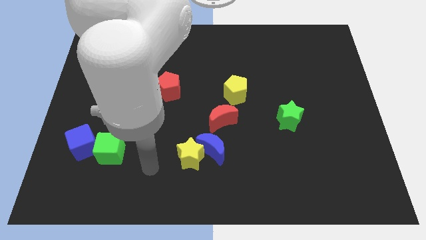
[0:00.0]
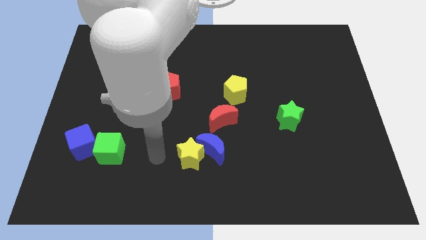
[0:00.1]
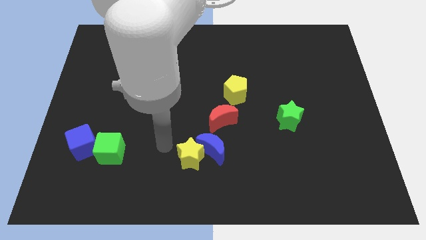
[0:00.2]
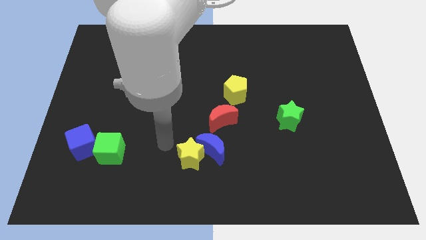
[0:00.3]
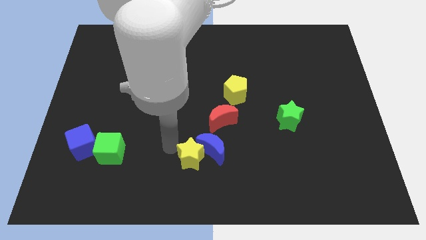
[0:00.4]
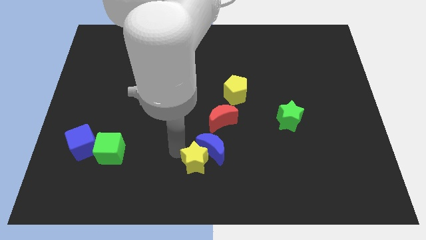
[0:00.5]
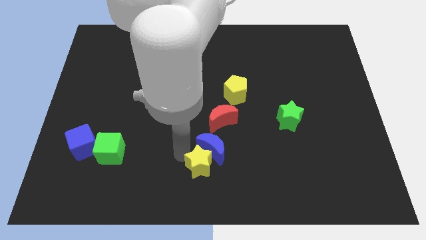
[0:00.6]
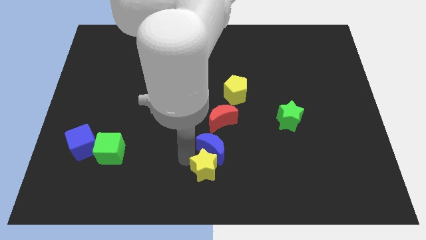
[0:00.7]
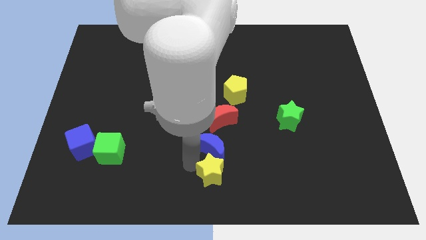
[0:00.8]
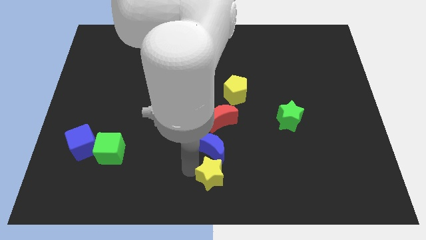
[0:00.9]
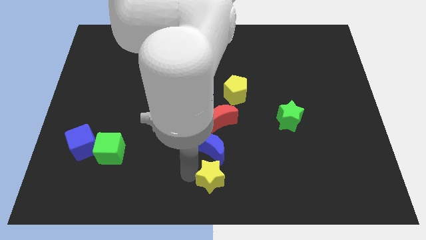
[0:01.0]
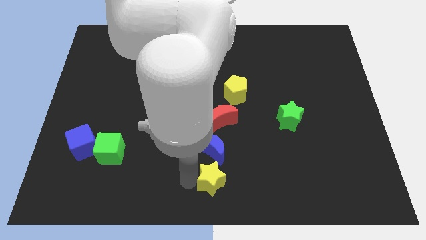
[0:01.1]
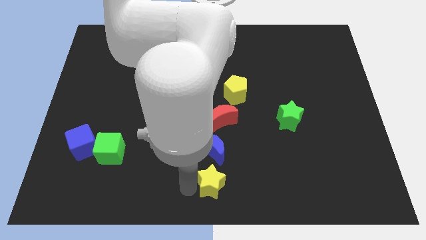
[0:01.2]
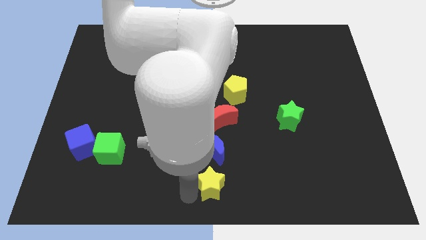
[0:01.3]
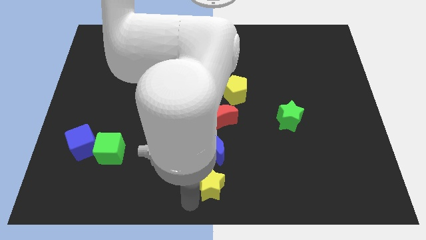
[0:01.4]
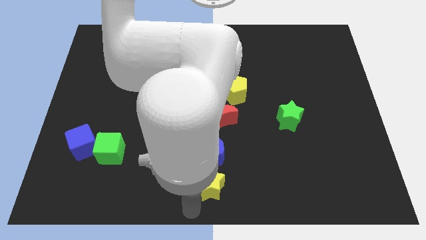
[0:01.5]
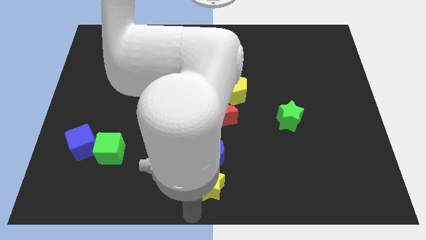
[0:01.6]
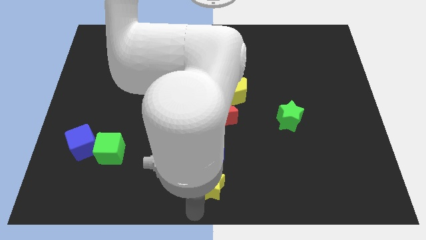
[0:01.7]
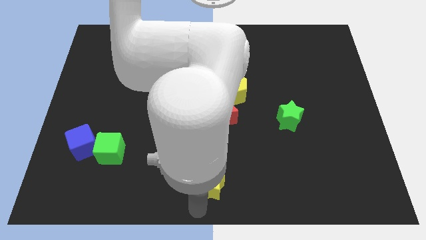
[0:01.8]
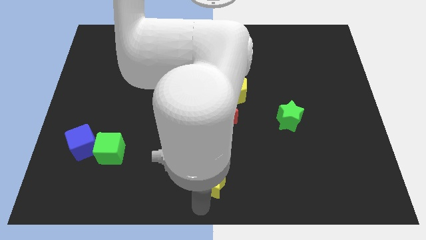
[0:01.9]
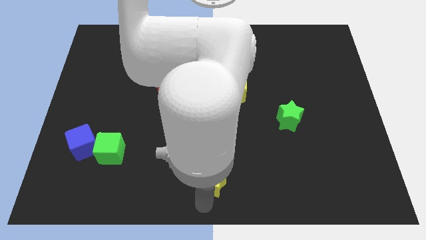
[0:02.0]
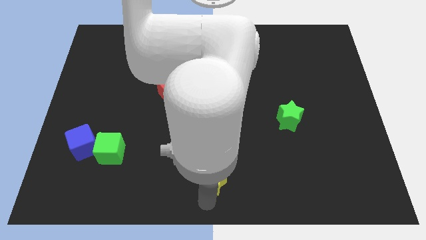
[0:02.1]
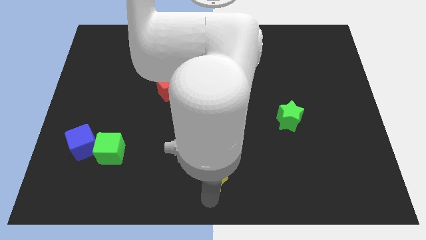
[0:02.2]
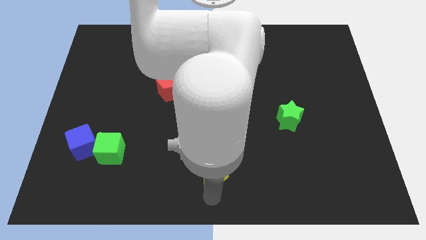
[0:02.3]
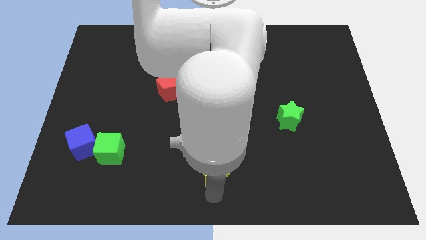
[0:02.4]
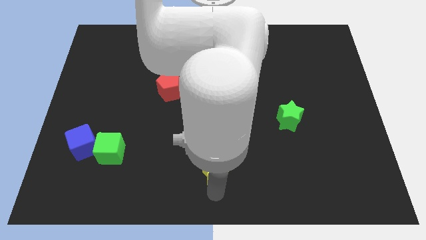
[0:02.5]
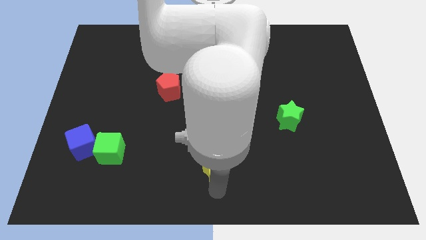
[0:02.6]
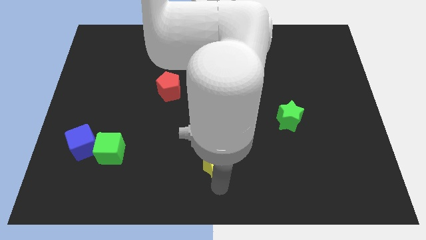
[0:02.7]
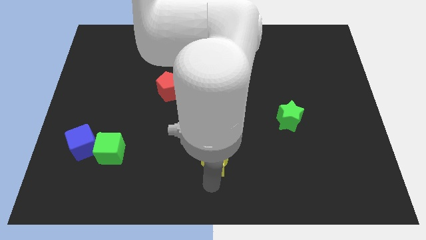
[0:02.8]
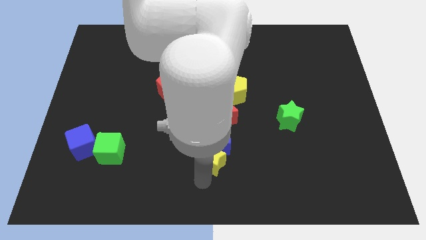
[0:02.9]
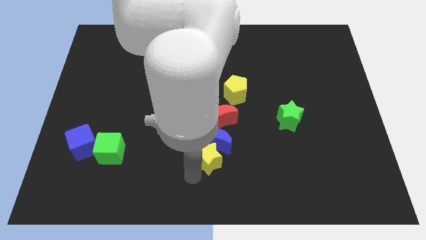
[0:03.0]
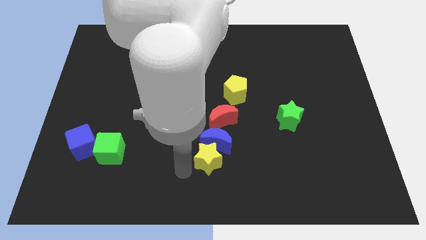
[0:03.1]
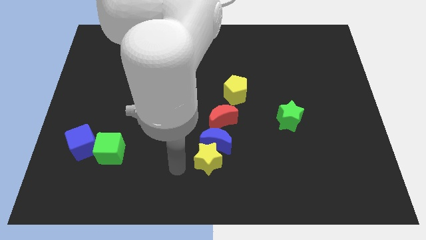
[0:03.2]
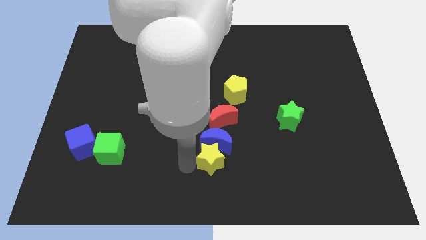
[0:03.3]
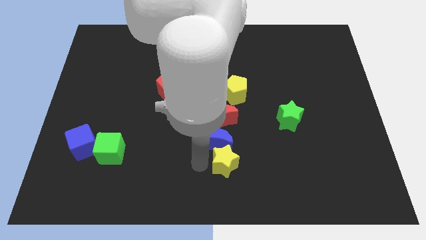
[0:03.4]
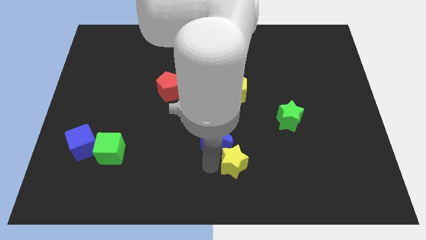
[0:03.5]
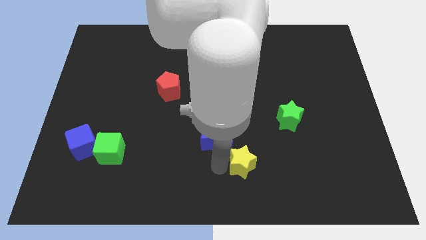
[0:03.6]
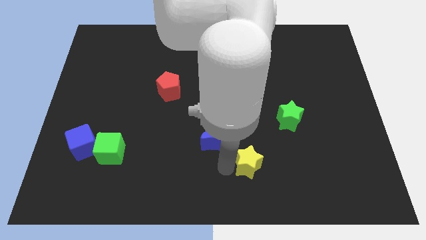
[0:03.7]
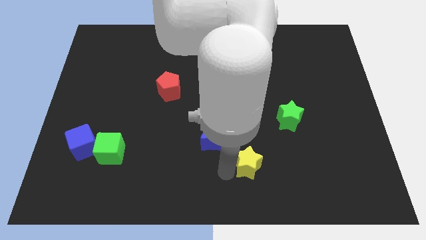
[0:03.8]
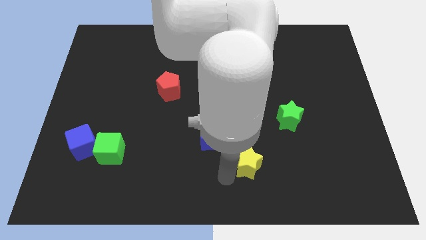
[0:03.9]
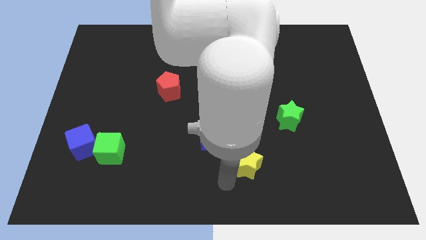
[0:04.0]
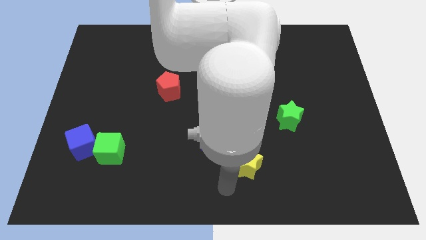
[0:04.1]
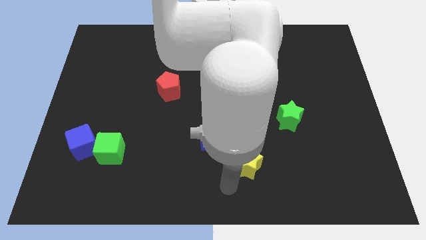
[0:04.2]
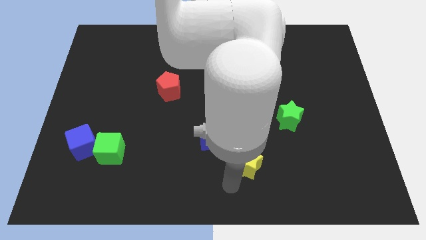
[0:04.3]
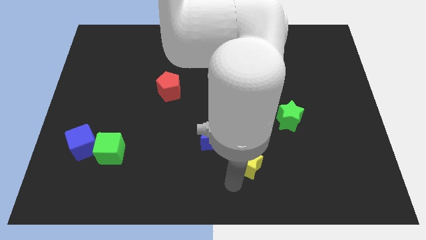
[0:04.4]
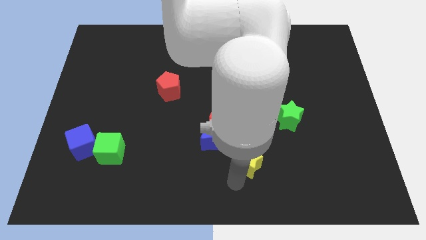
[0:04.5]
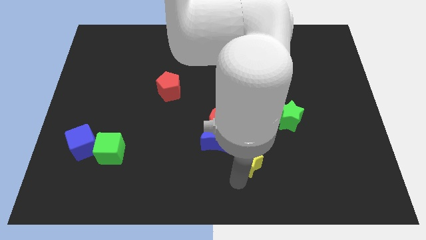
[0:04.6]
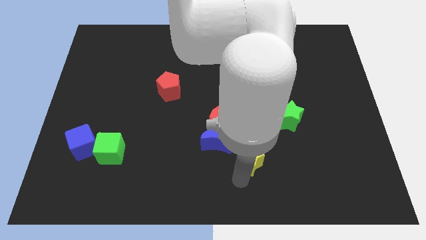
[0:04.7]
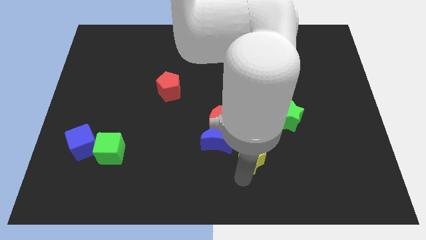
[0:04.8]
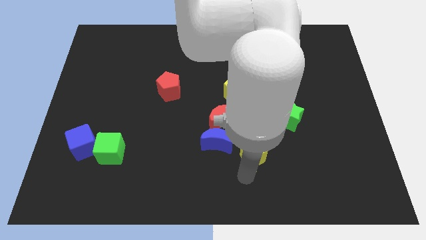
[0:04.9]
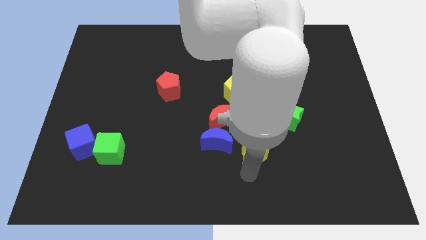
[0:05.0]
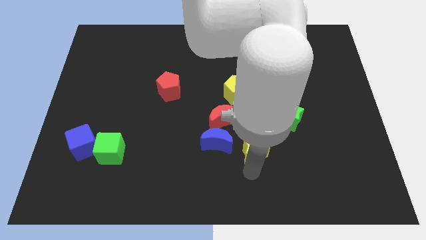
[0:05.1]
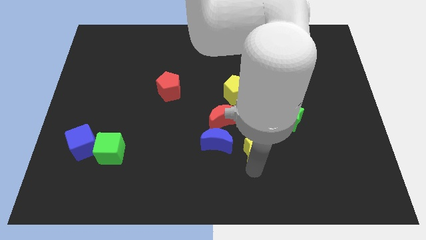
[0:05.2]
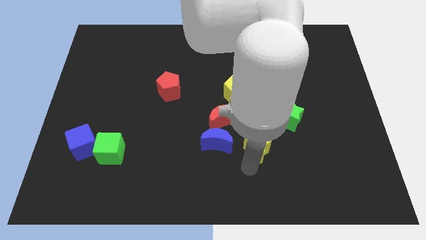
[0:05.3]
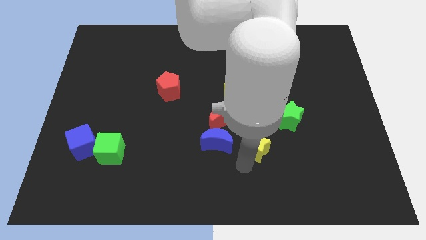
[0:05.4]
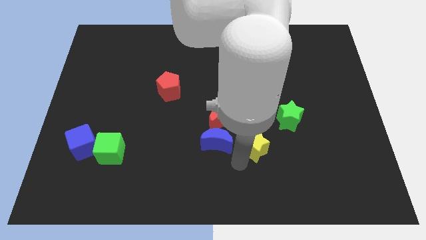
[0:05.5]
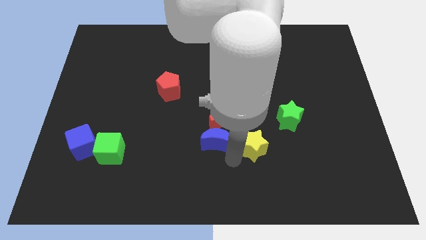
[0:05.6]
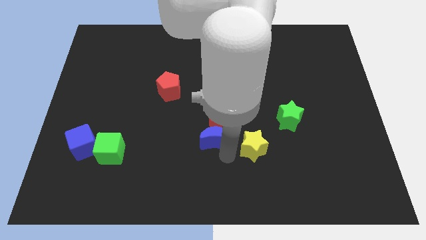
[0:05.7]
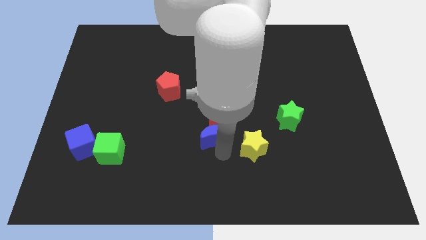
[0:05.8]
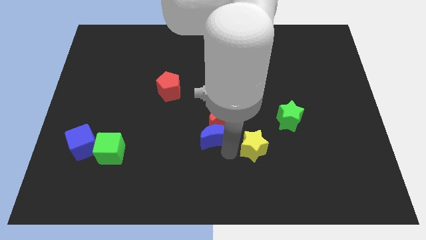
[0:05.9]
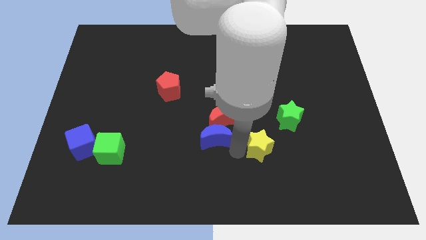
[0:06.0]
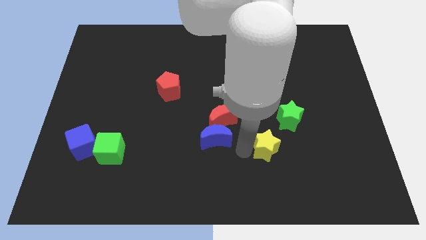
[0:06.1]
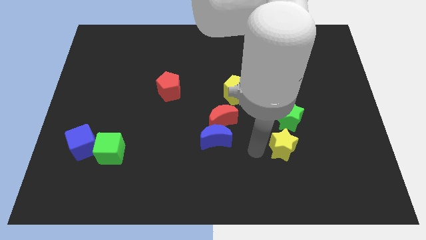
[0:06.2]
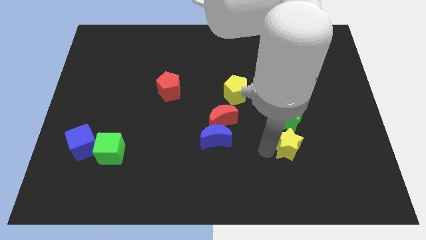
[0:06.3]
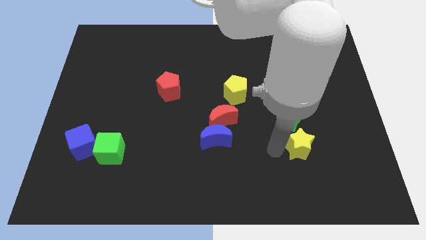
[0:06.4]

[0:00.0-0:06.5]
push the yellow star diagonally down and to the right of the green star

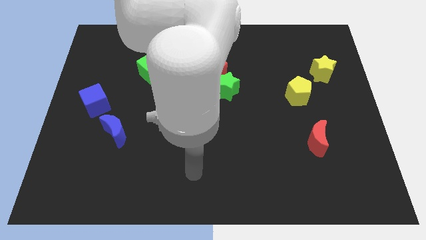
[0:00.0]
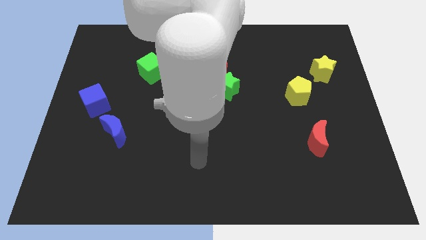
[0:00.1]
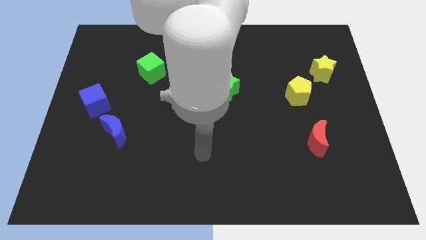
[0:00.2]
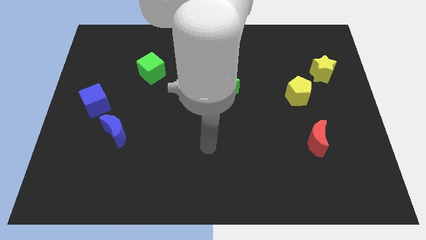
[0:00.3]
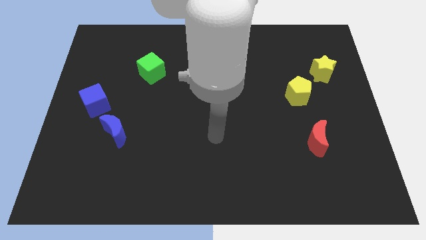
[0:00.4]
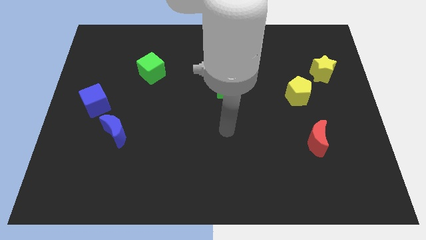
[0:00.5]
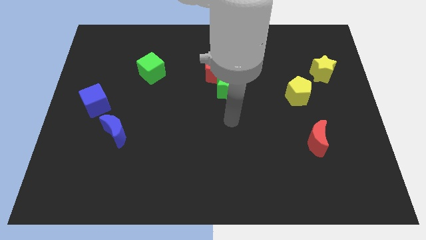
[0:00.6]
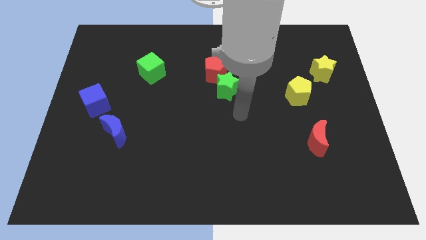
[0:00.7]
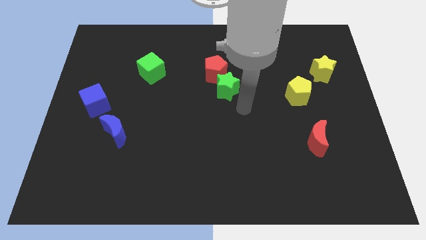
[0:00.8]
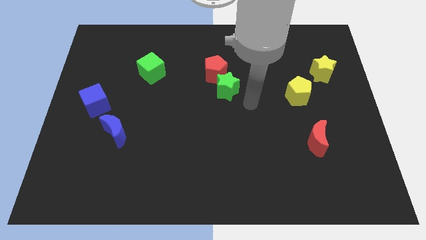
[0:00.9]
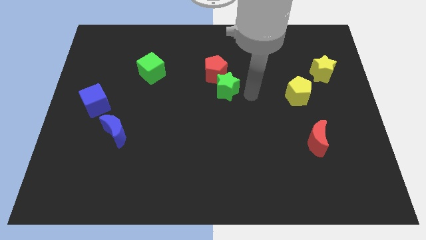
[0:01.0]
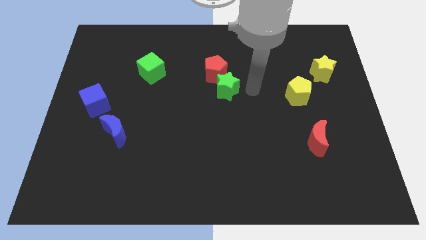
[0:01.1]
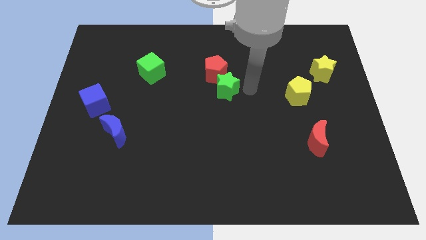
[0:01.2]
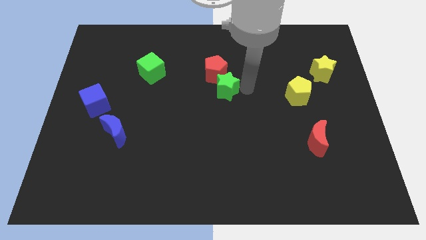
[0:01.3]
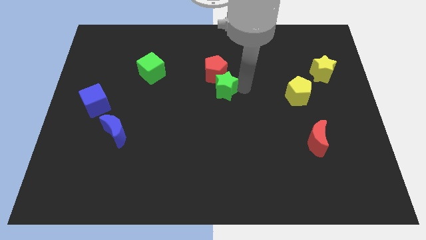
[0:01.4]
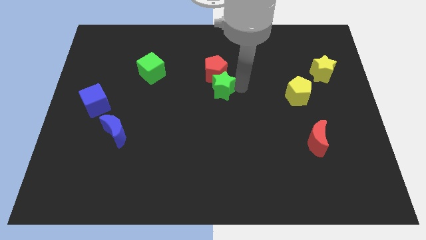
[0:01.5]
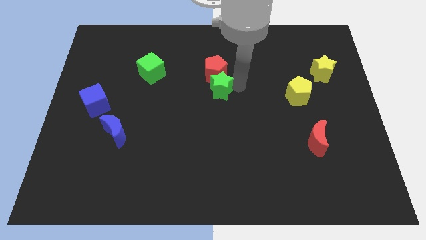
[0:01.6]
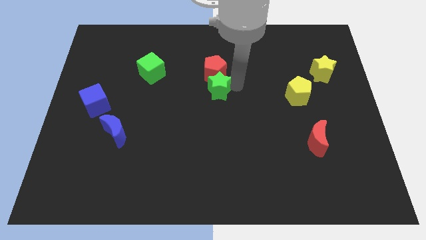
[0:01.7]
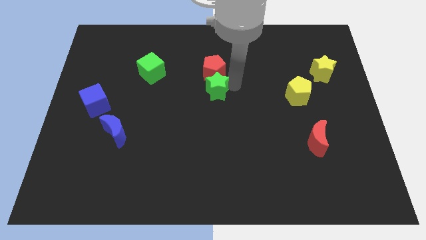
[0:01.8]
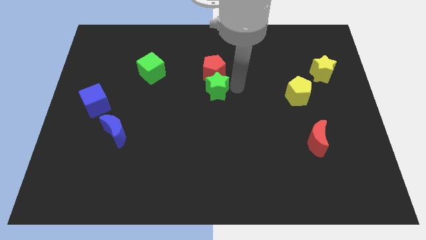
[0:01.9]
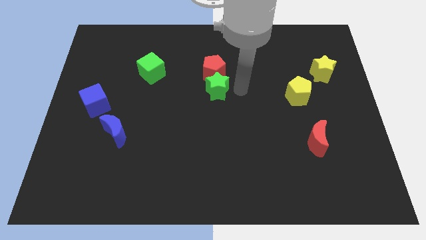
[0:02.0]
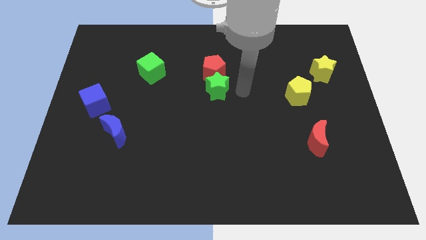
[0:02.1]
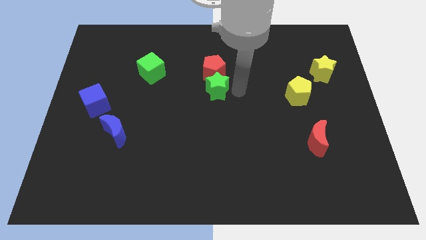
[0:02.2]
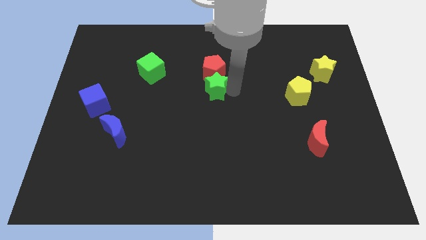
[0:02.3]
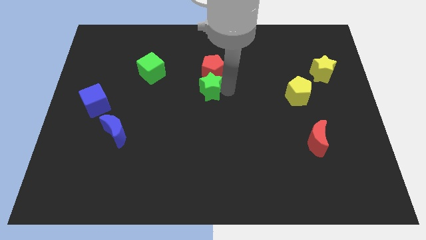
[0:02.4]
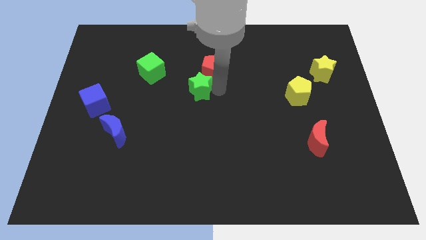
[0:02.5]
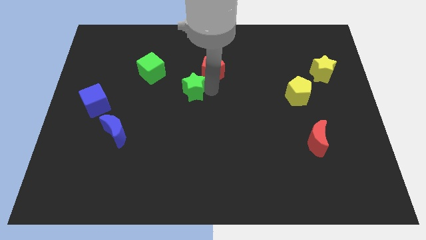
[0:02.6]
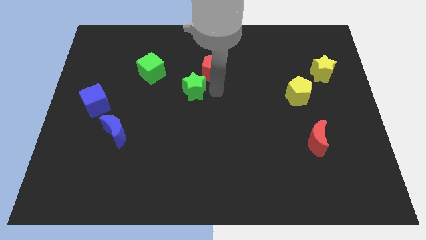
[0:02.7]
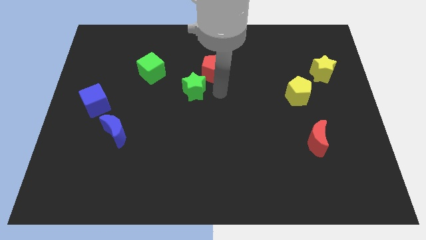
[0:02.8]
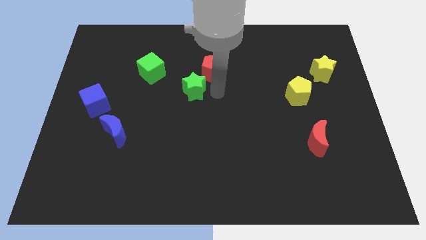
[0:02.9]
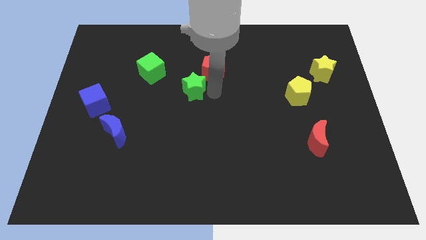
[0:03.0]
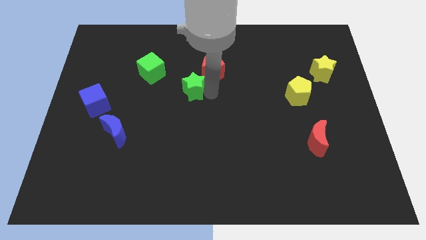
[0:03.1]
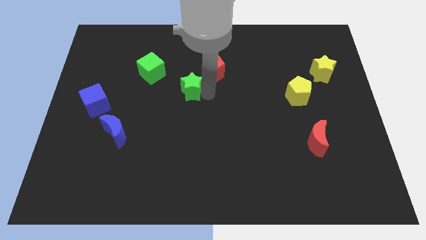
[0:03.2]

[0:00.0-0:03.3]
move the green star to the bottom right of the green cube
